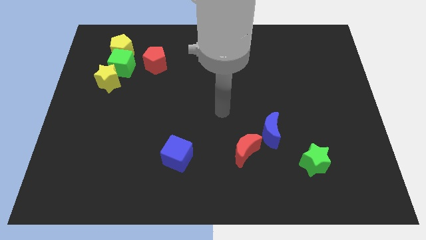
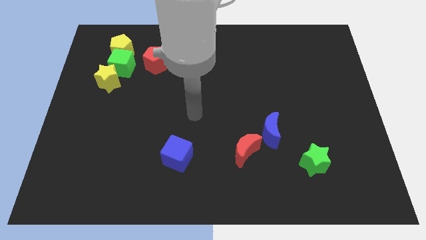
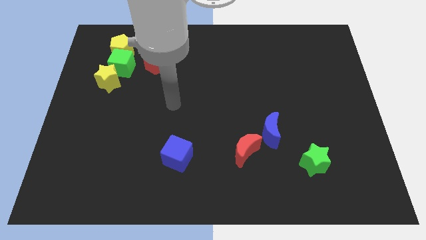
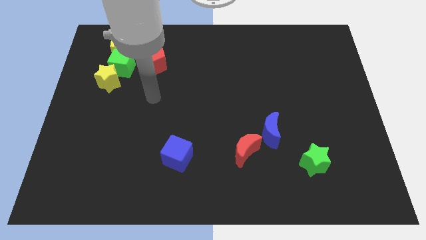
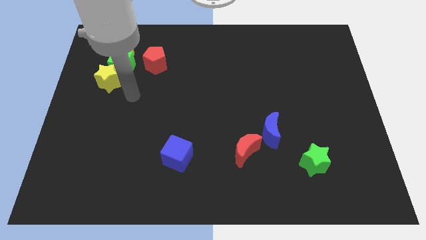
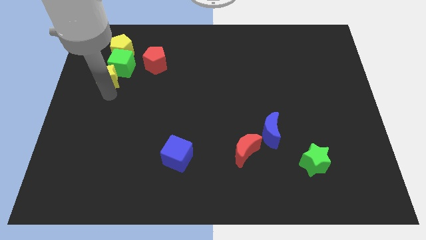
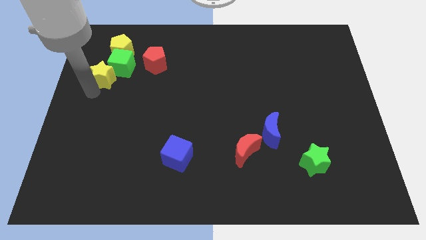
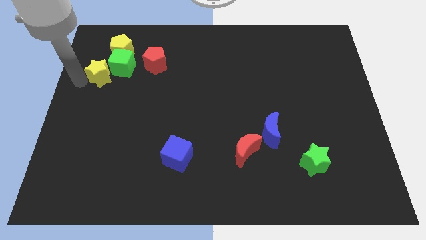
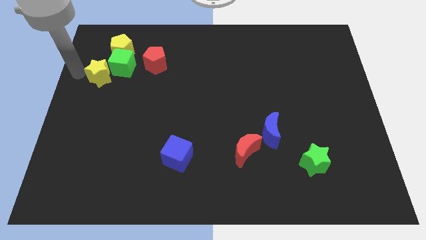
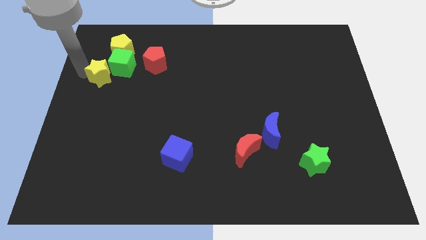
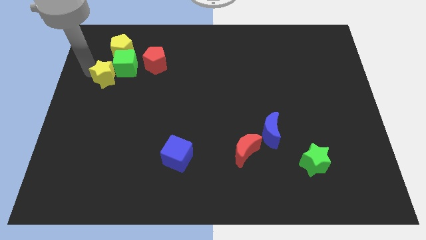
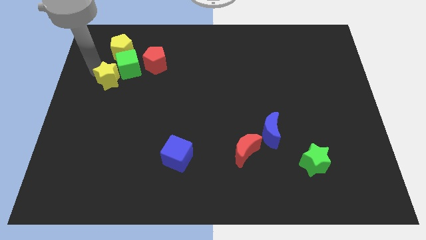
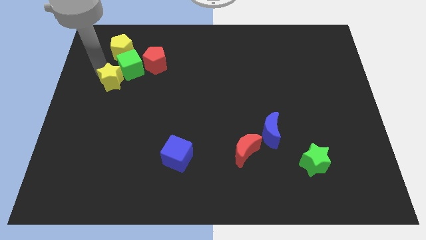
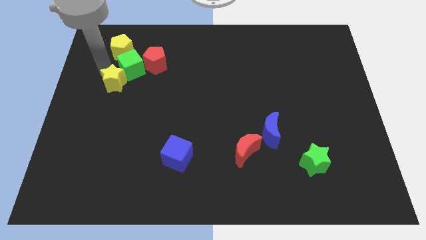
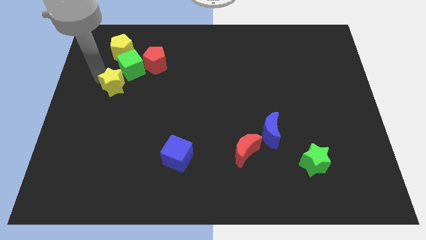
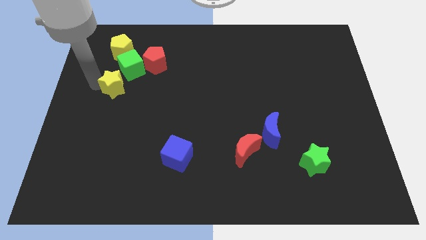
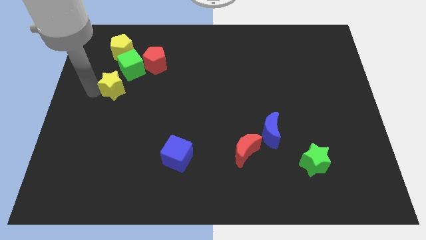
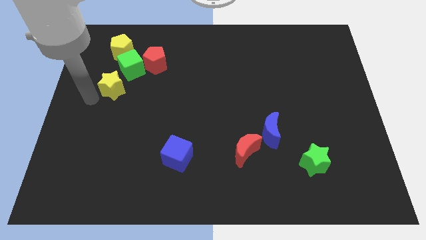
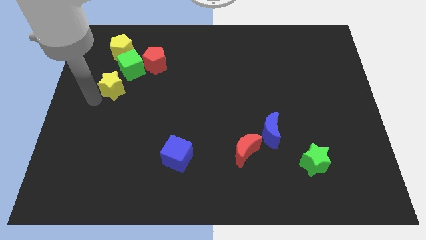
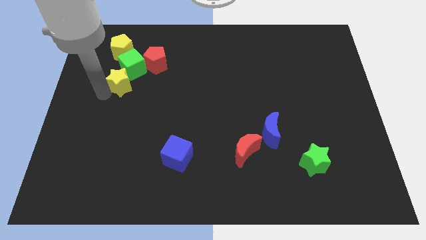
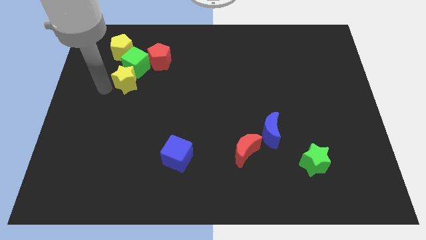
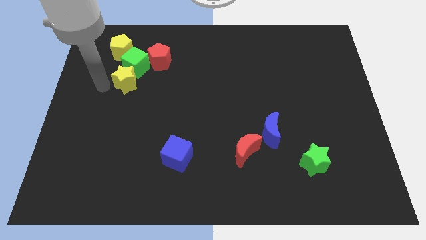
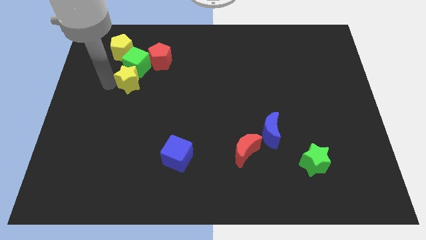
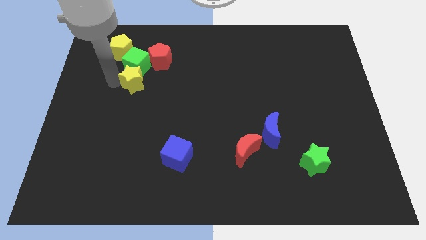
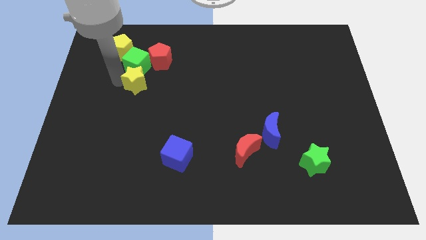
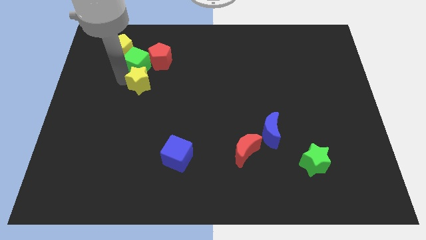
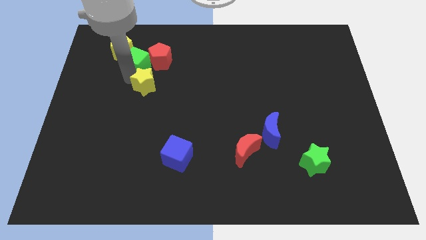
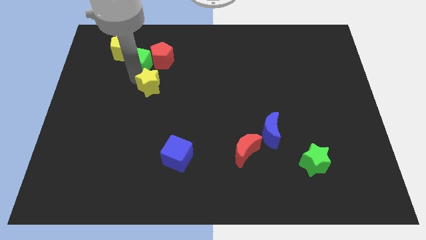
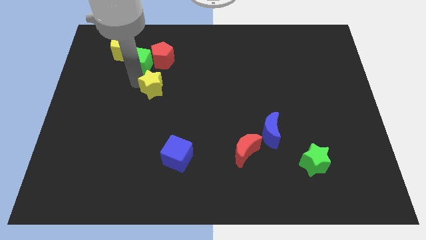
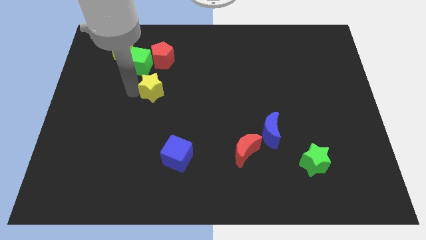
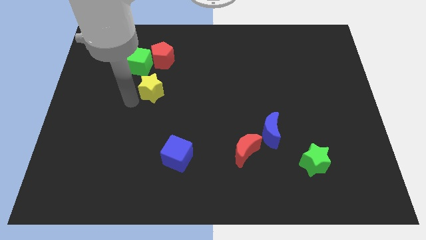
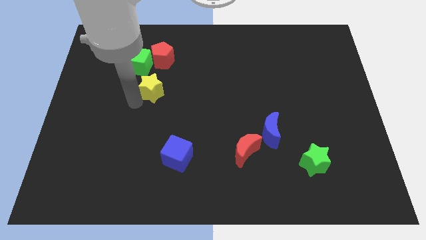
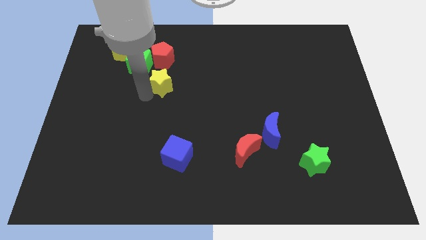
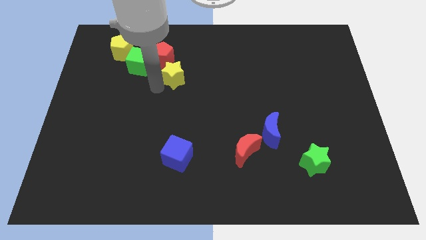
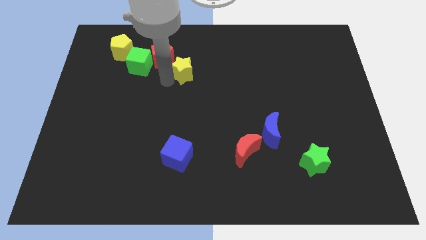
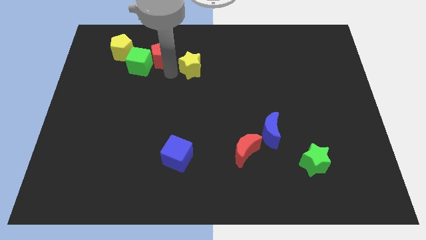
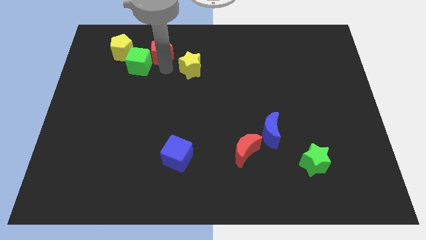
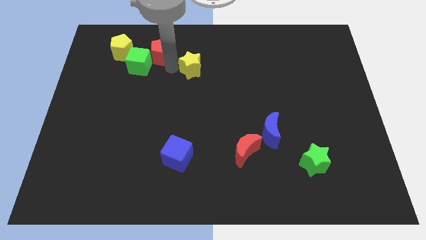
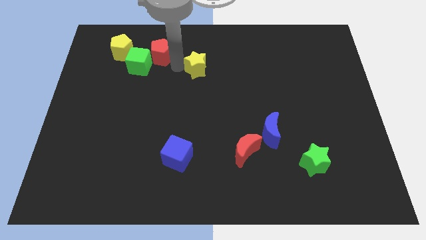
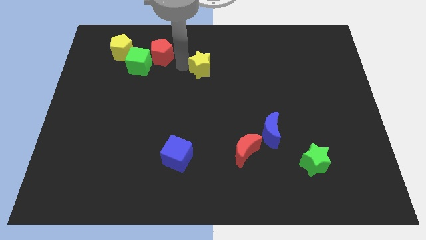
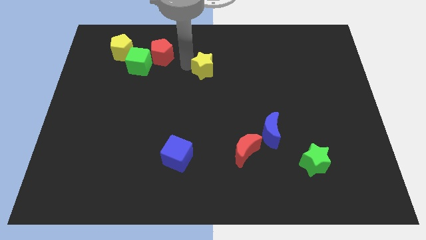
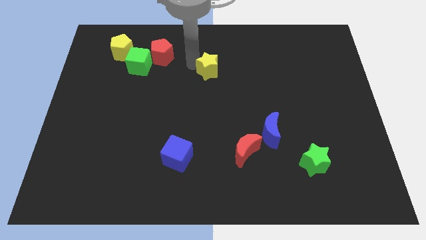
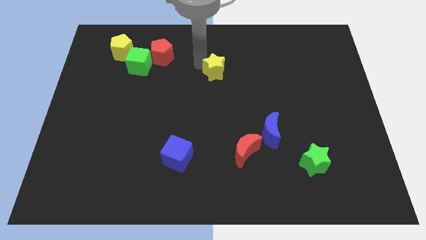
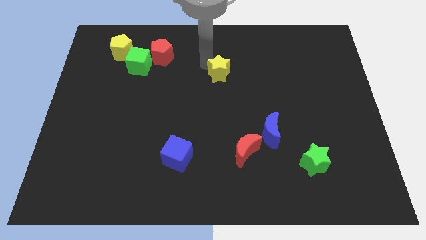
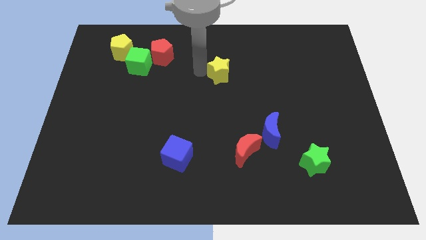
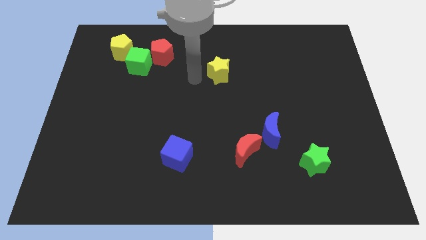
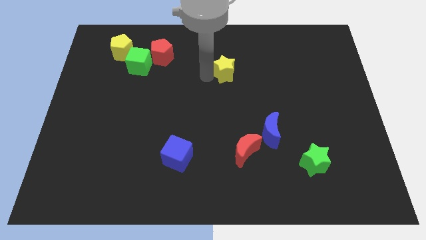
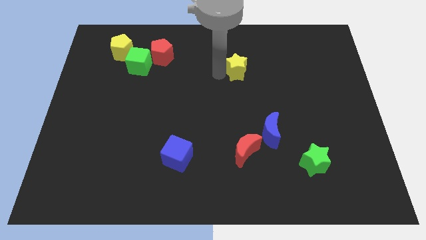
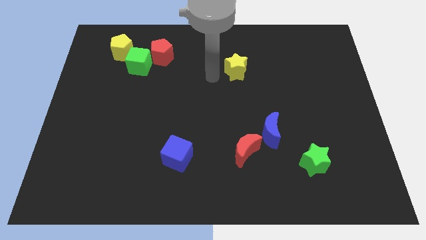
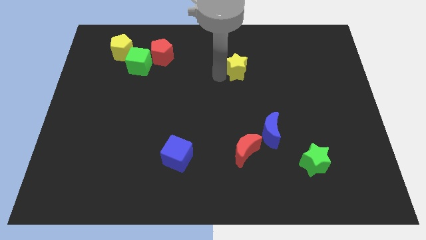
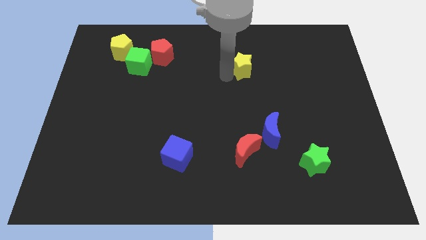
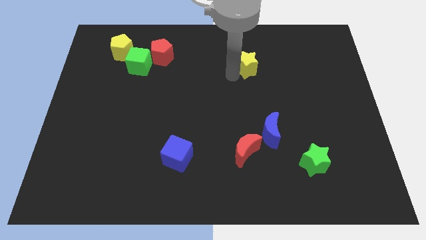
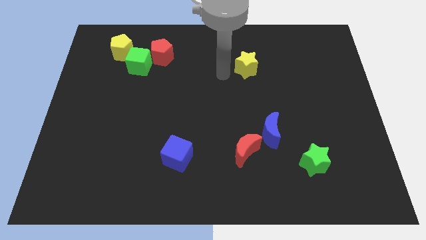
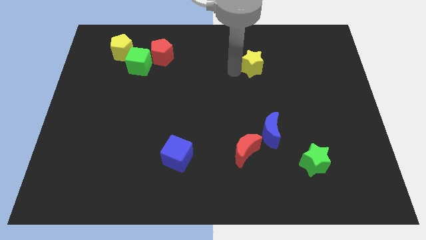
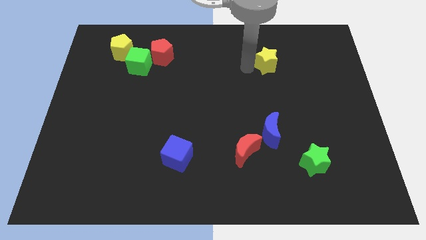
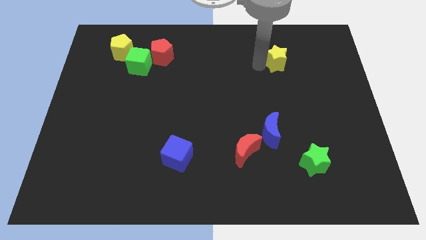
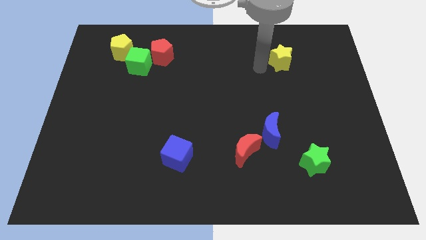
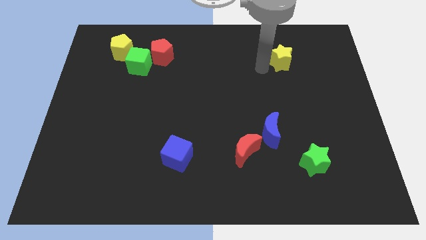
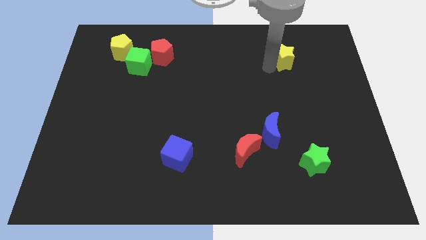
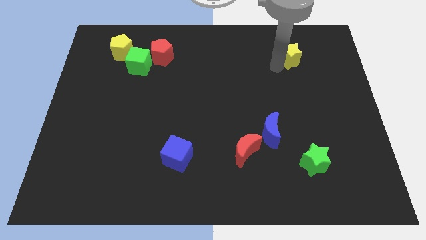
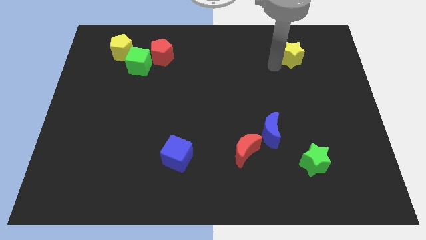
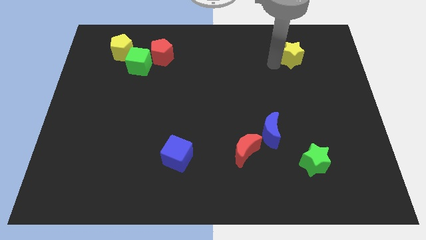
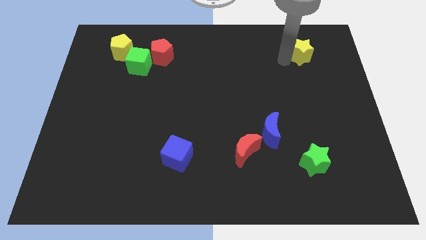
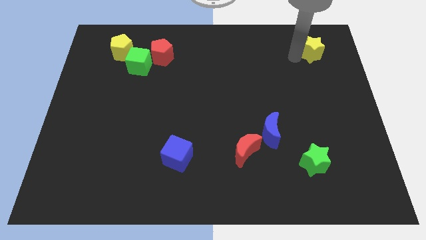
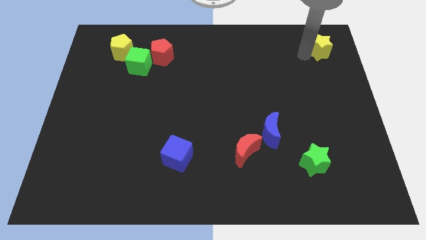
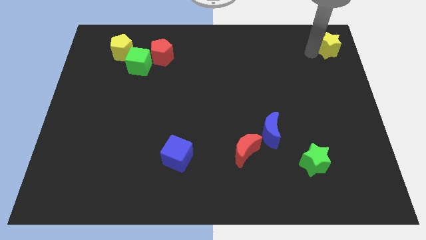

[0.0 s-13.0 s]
put the yellow star to the upper right corner
